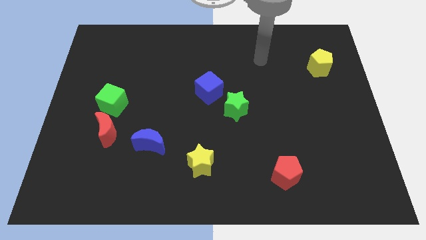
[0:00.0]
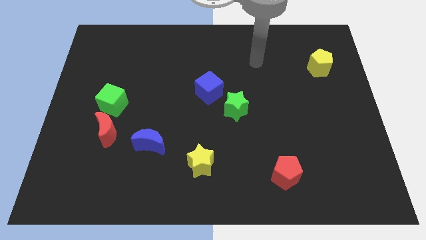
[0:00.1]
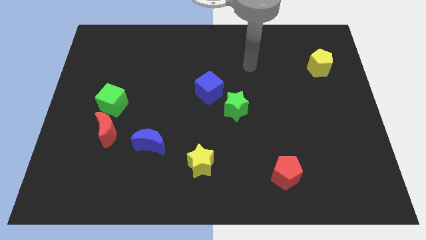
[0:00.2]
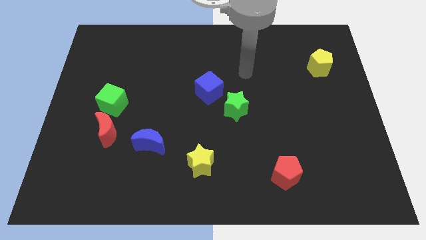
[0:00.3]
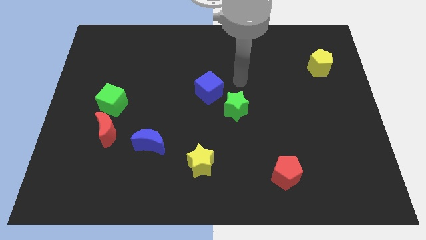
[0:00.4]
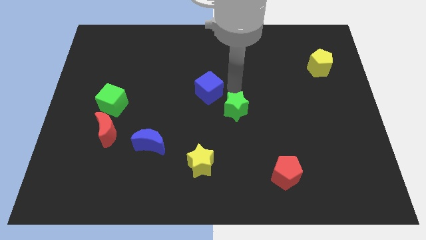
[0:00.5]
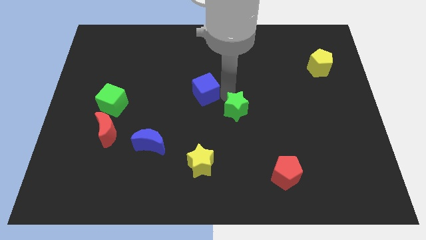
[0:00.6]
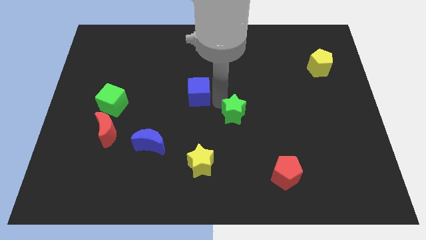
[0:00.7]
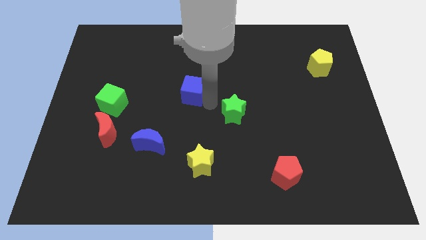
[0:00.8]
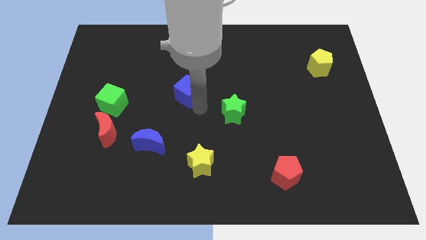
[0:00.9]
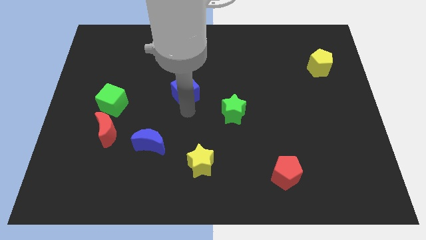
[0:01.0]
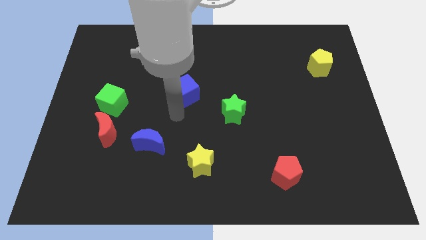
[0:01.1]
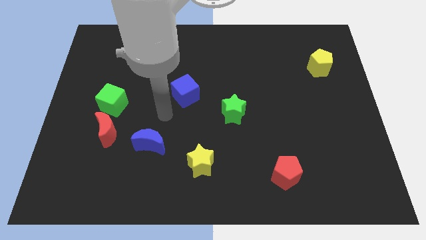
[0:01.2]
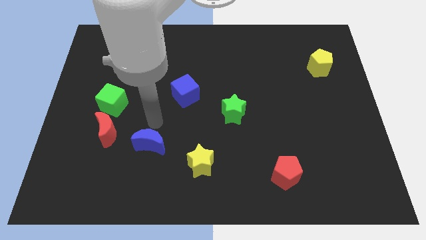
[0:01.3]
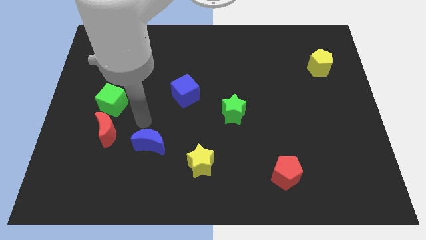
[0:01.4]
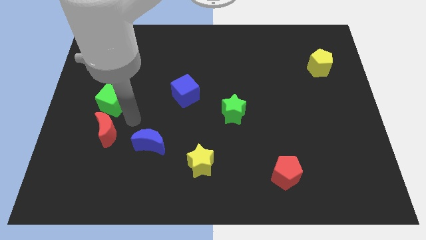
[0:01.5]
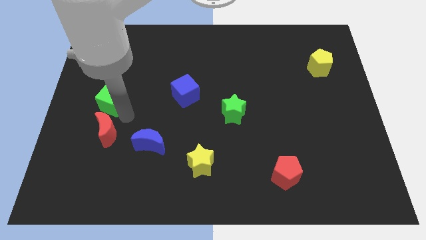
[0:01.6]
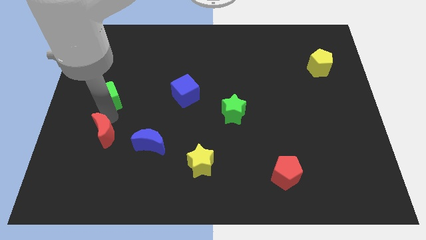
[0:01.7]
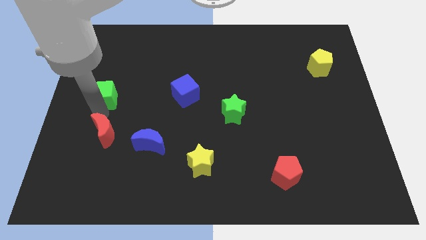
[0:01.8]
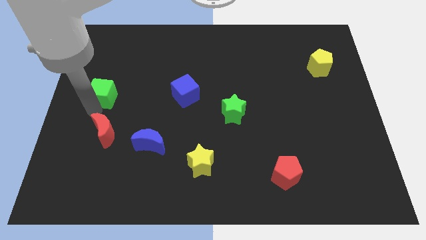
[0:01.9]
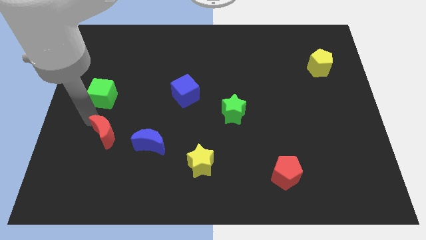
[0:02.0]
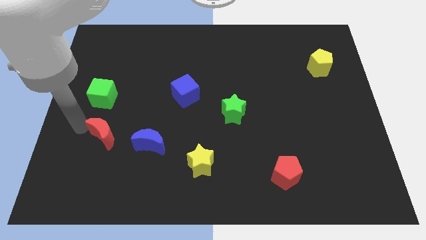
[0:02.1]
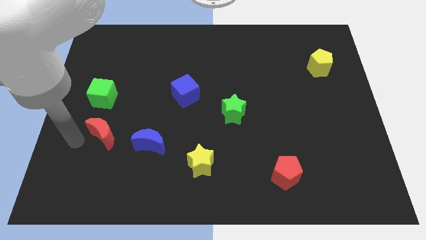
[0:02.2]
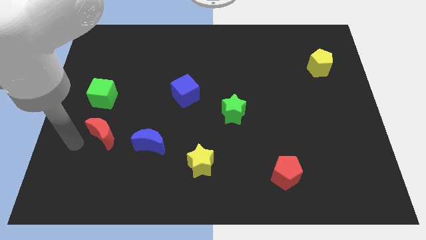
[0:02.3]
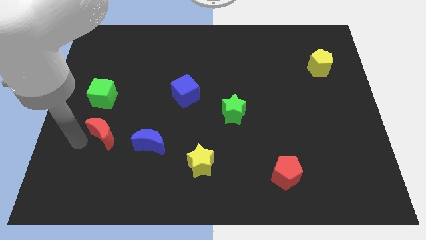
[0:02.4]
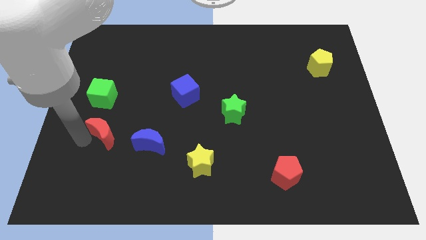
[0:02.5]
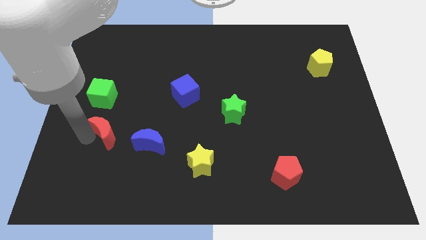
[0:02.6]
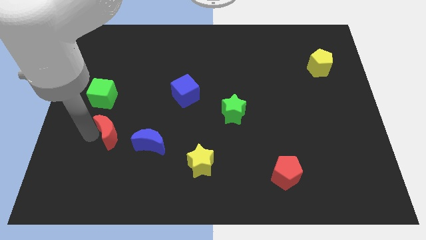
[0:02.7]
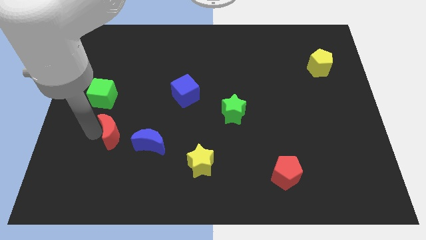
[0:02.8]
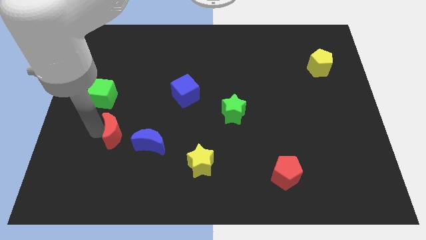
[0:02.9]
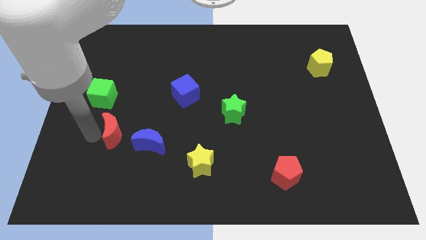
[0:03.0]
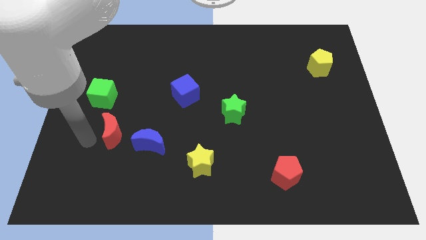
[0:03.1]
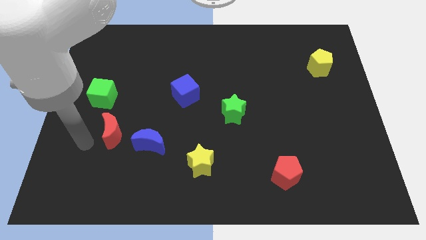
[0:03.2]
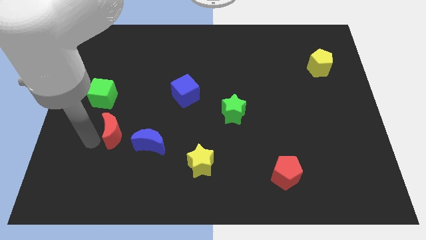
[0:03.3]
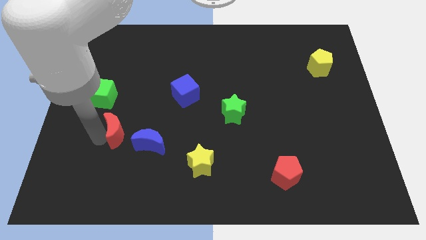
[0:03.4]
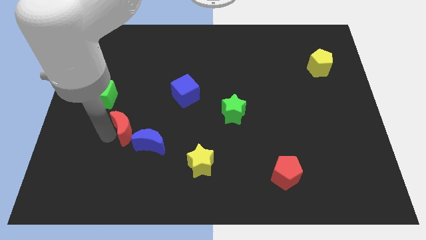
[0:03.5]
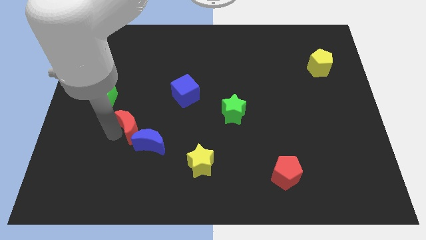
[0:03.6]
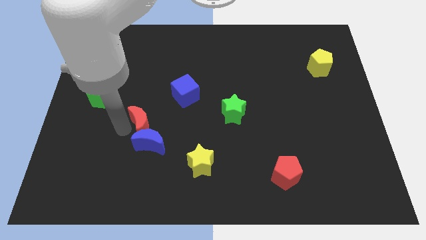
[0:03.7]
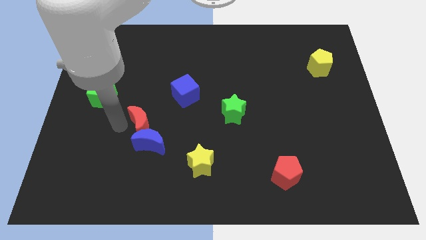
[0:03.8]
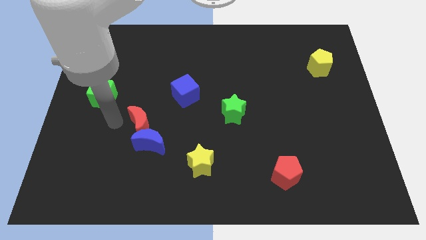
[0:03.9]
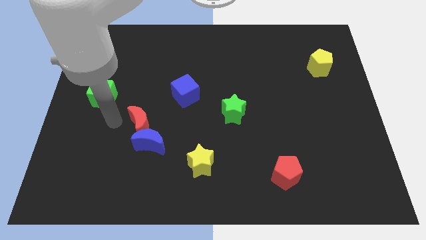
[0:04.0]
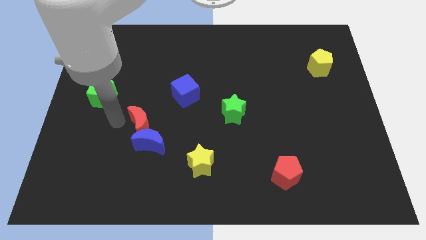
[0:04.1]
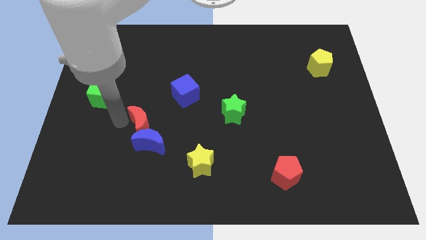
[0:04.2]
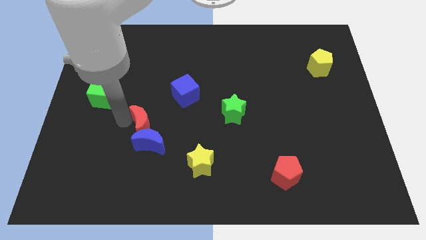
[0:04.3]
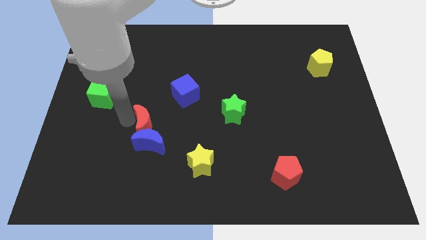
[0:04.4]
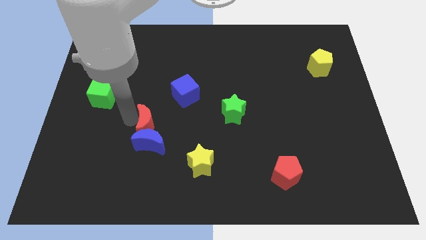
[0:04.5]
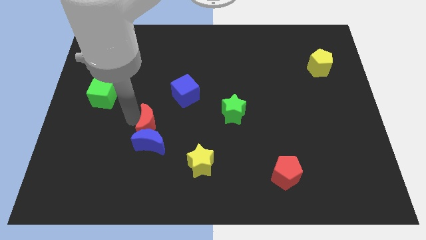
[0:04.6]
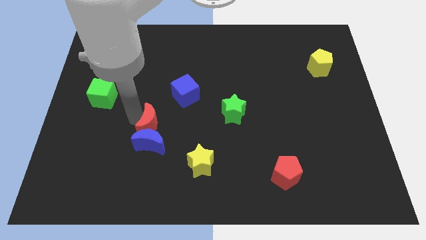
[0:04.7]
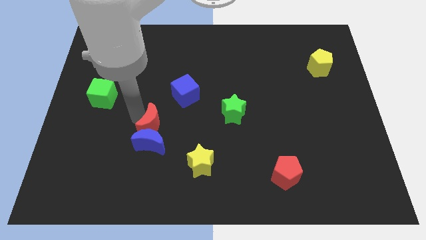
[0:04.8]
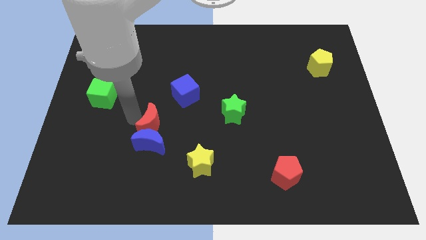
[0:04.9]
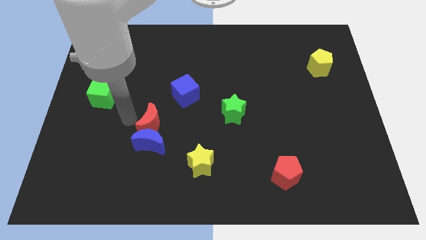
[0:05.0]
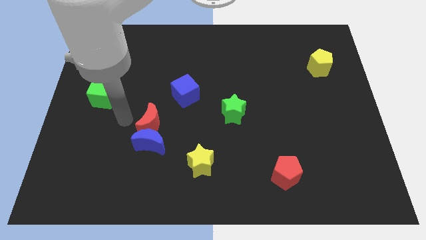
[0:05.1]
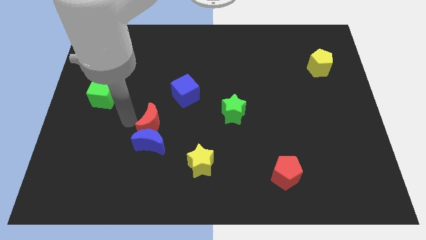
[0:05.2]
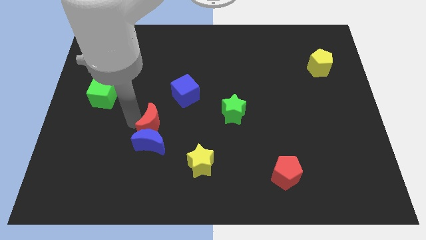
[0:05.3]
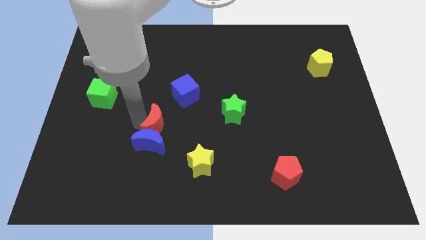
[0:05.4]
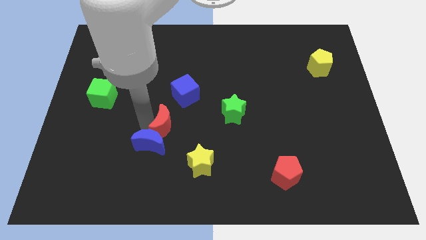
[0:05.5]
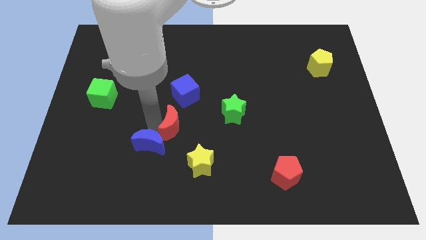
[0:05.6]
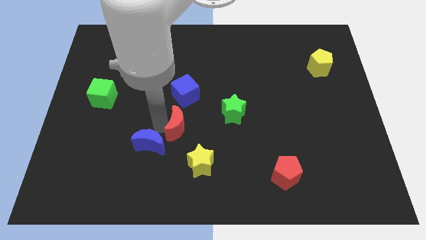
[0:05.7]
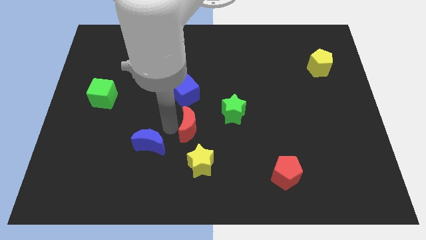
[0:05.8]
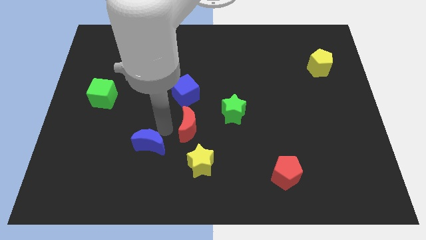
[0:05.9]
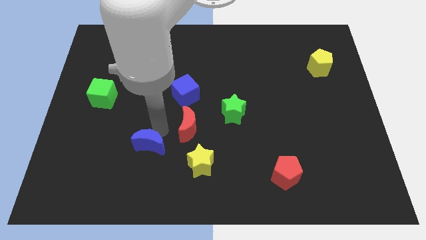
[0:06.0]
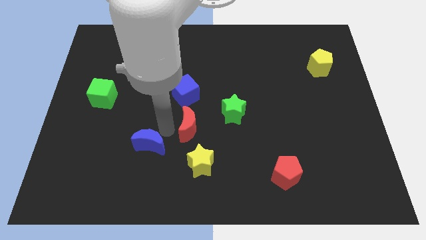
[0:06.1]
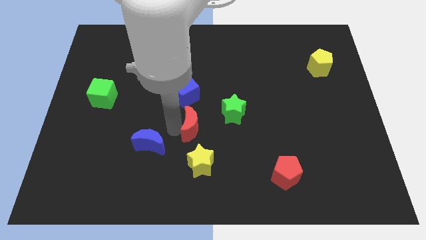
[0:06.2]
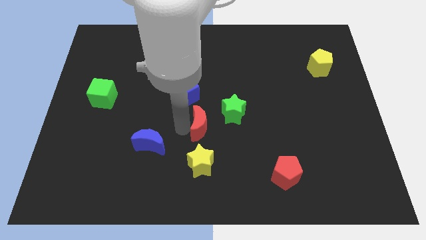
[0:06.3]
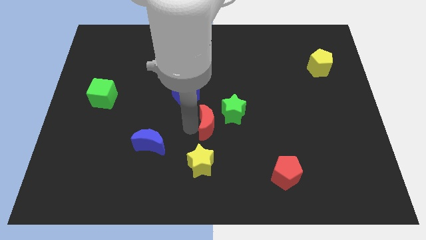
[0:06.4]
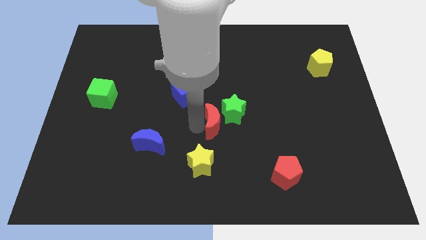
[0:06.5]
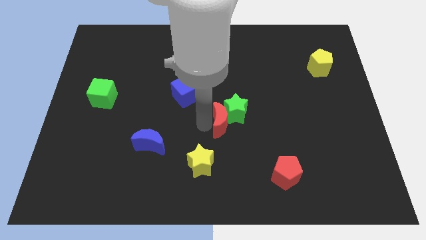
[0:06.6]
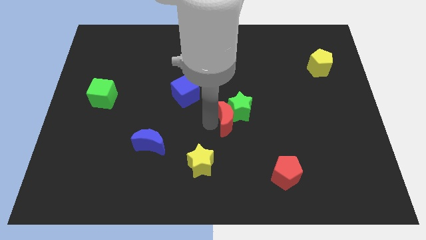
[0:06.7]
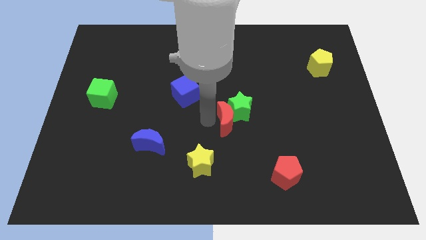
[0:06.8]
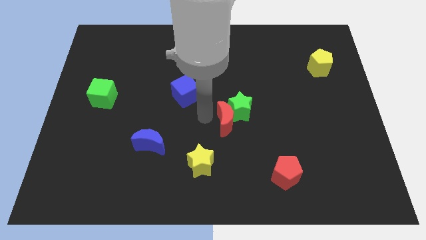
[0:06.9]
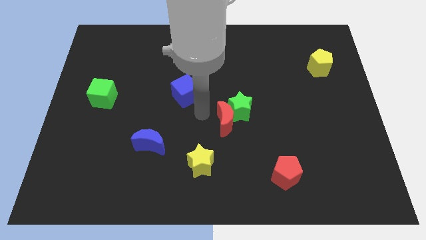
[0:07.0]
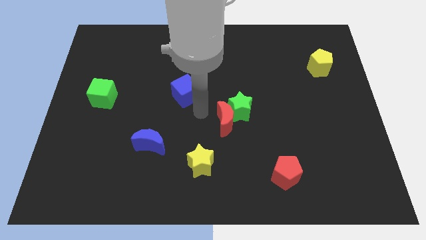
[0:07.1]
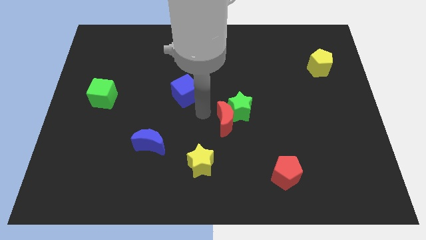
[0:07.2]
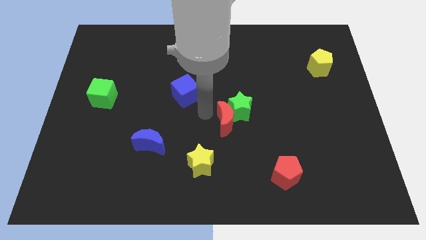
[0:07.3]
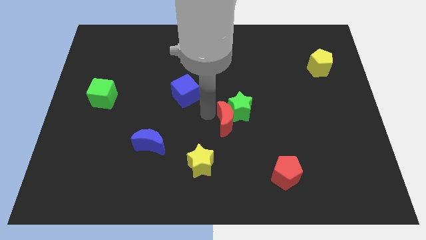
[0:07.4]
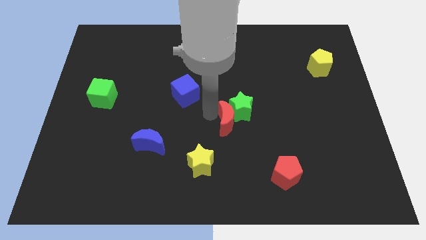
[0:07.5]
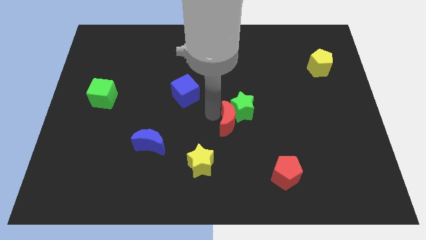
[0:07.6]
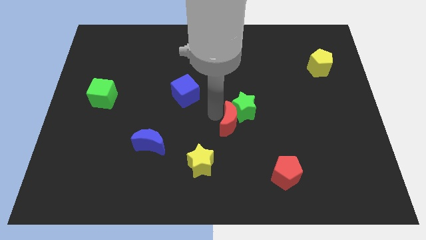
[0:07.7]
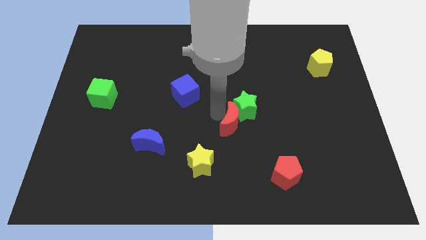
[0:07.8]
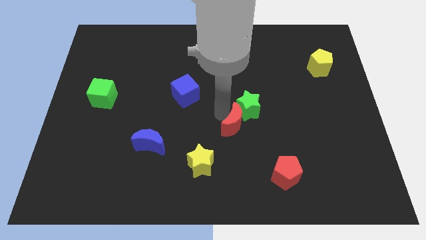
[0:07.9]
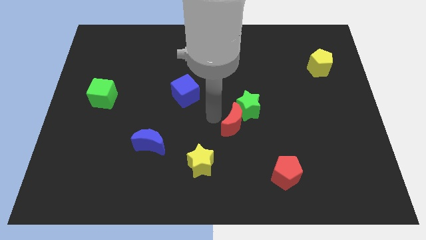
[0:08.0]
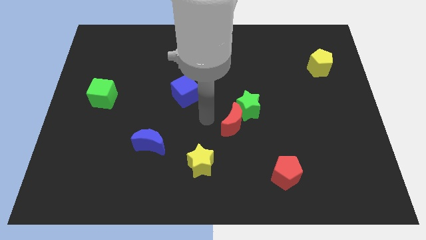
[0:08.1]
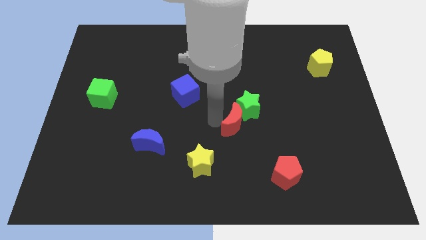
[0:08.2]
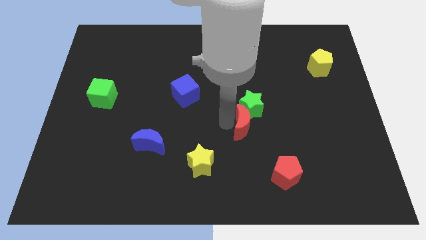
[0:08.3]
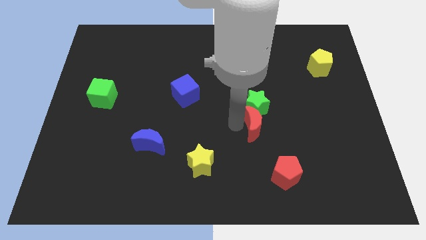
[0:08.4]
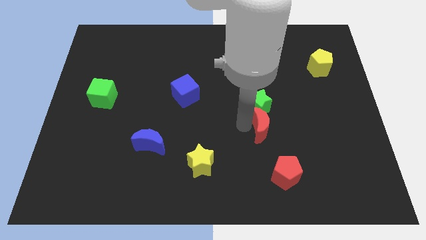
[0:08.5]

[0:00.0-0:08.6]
move the red moon above the red pentagon
